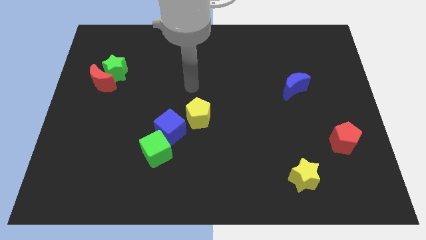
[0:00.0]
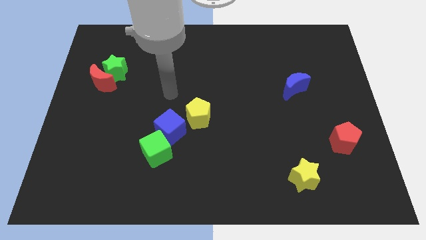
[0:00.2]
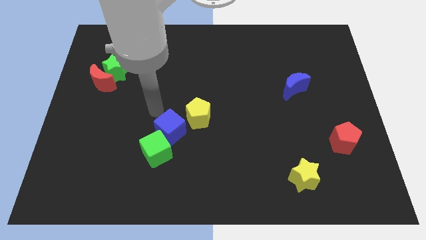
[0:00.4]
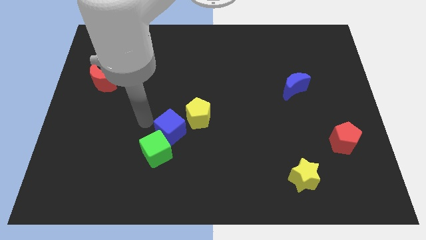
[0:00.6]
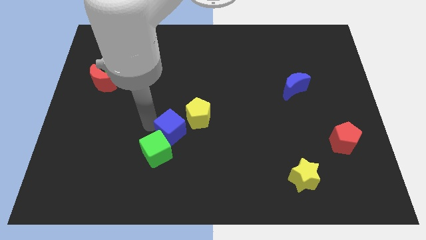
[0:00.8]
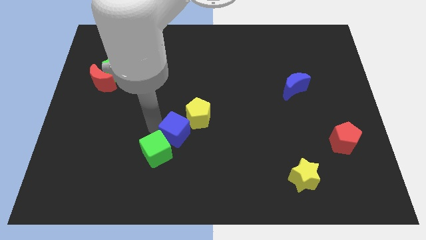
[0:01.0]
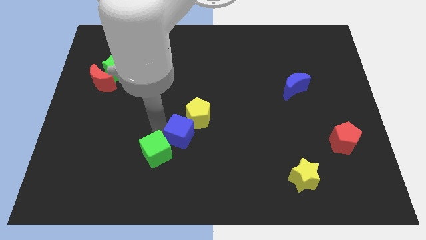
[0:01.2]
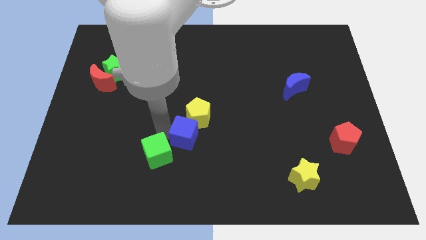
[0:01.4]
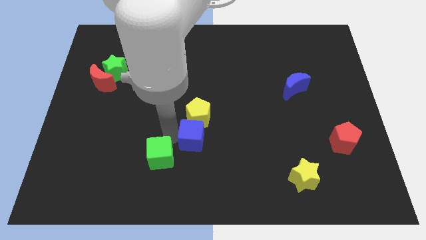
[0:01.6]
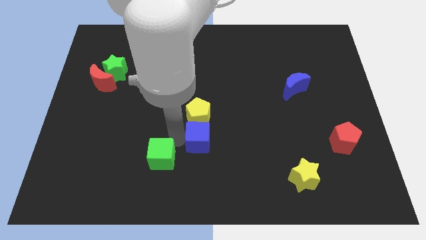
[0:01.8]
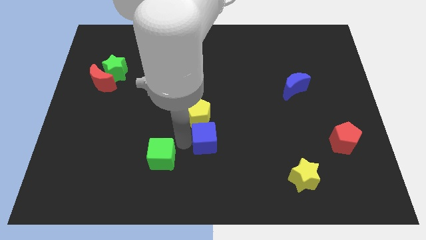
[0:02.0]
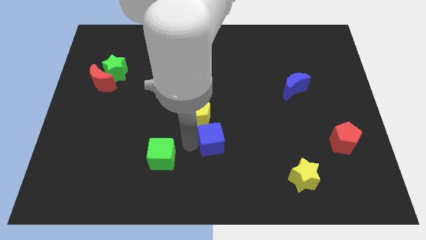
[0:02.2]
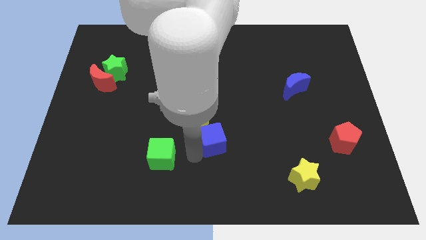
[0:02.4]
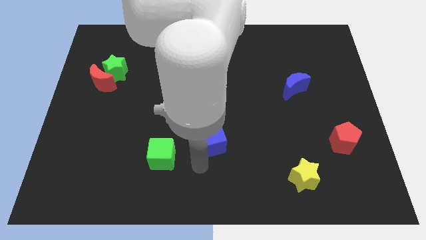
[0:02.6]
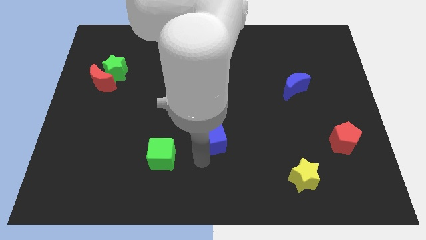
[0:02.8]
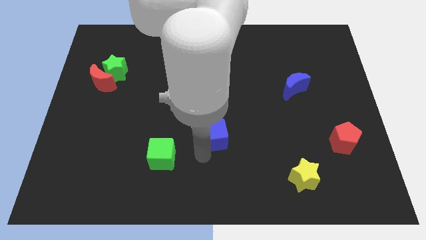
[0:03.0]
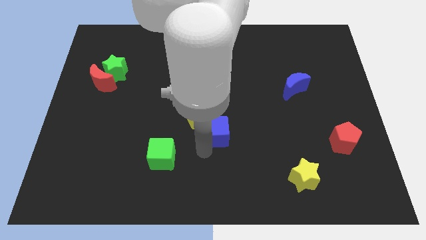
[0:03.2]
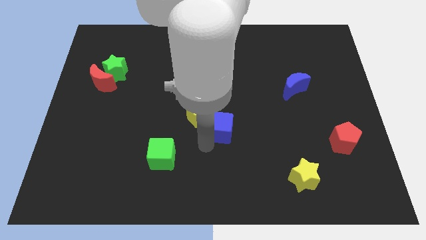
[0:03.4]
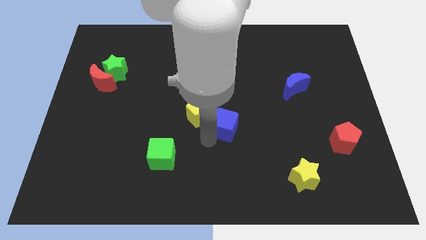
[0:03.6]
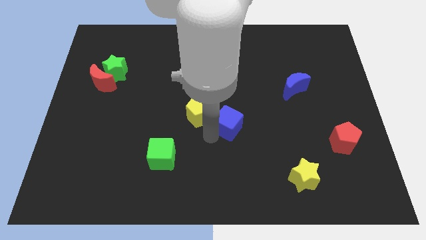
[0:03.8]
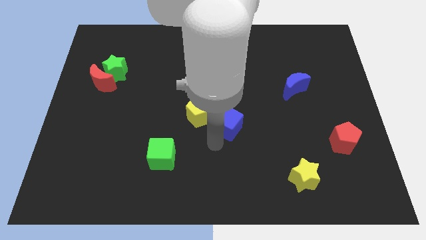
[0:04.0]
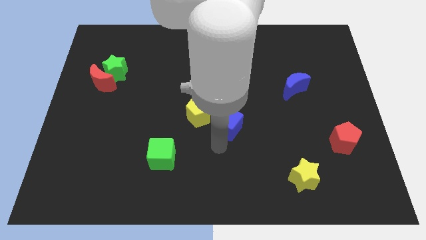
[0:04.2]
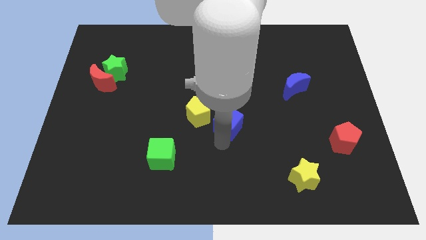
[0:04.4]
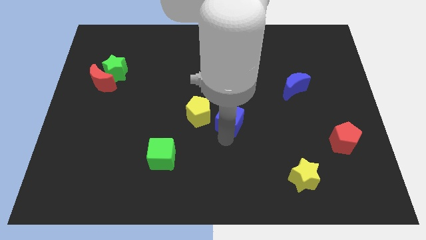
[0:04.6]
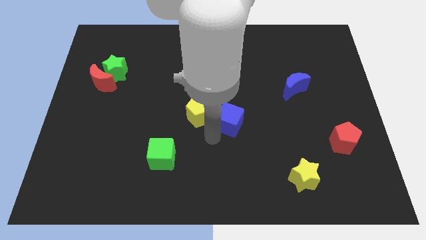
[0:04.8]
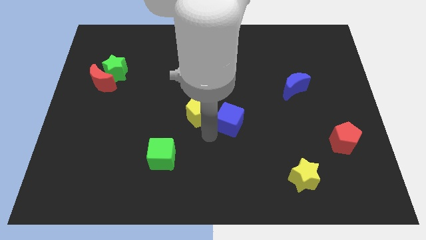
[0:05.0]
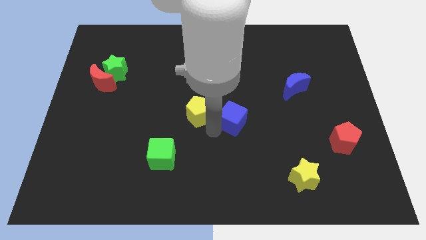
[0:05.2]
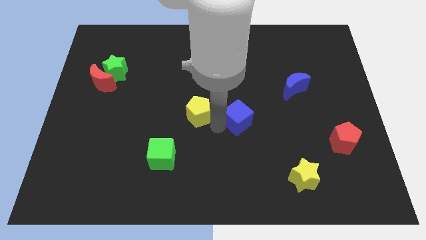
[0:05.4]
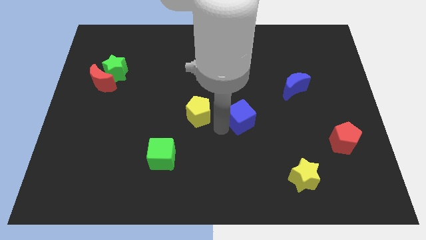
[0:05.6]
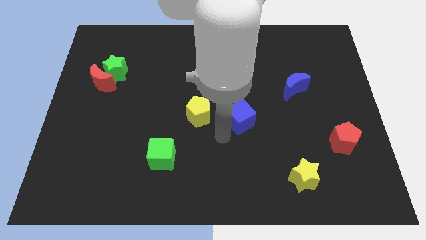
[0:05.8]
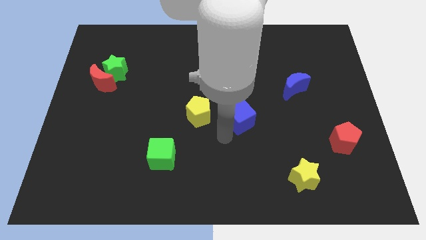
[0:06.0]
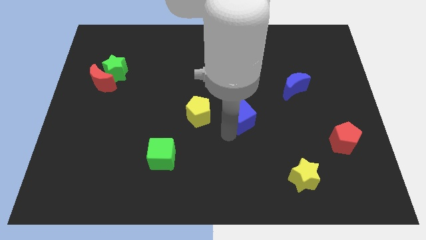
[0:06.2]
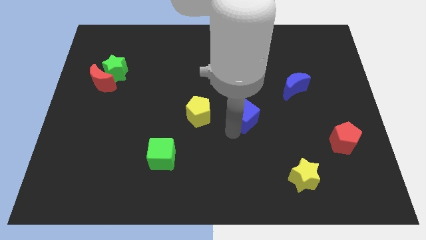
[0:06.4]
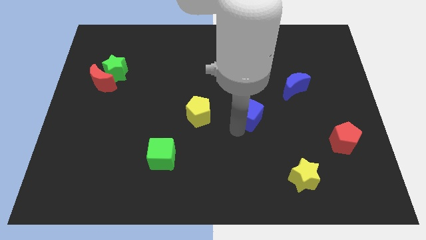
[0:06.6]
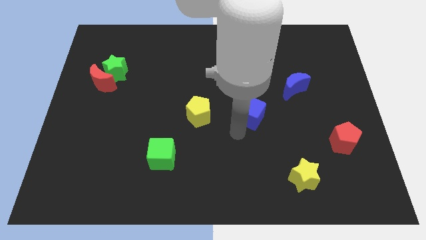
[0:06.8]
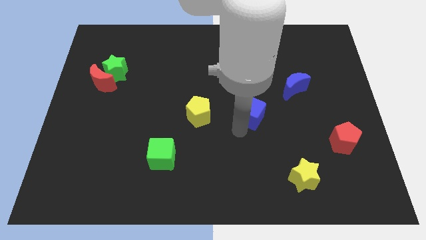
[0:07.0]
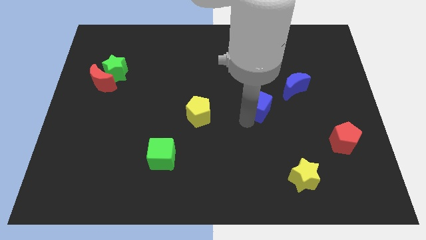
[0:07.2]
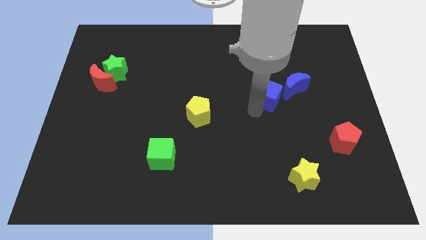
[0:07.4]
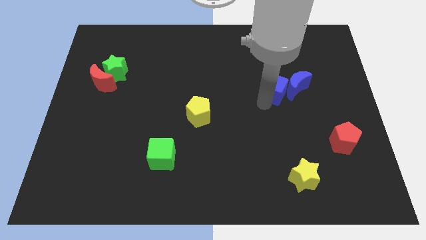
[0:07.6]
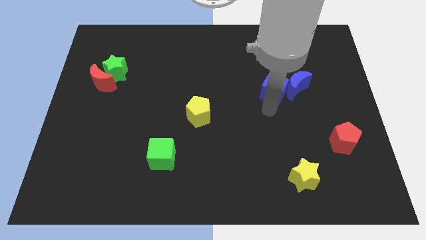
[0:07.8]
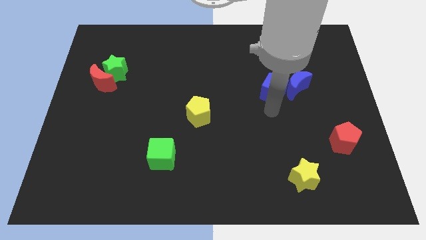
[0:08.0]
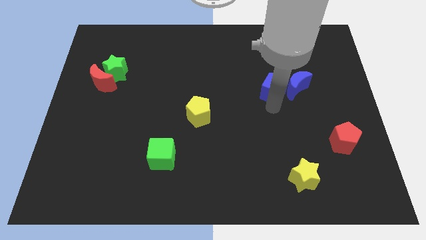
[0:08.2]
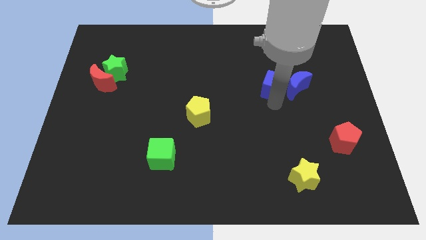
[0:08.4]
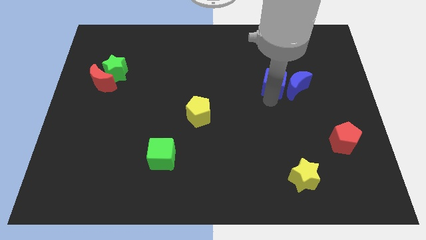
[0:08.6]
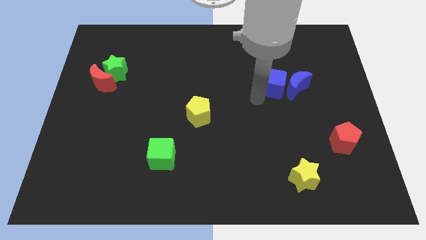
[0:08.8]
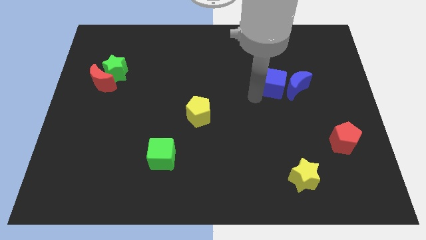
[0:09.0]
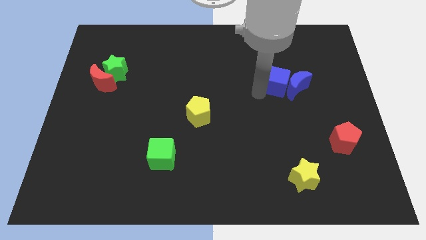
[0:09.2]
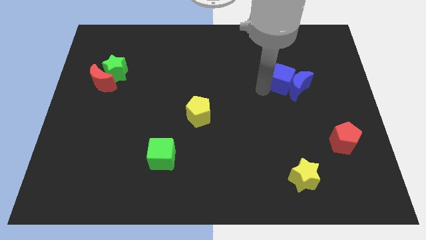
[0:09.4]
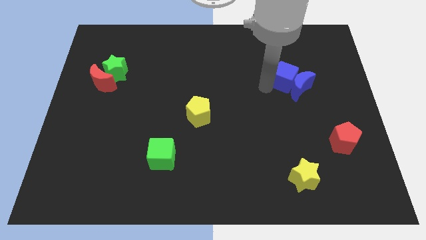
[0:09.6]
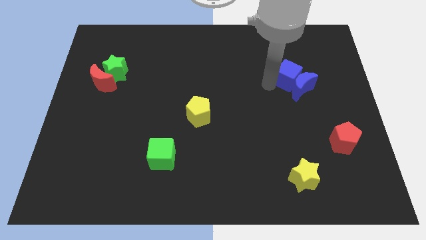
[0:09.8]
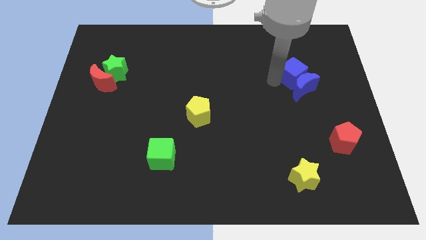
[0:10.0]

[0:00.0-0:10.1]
move the blue cube diagonally up and to the right of the blue moon

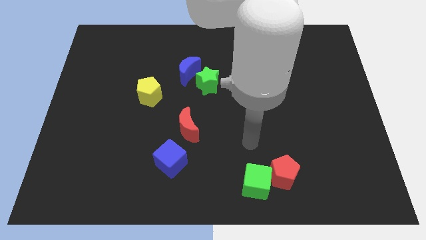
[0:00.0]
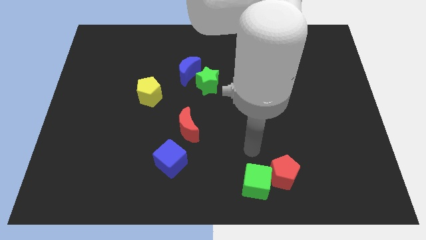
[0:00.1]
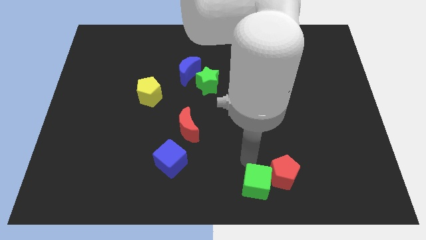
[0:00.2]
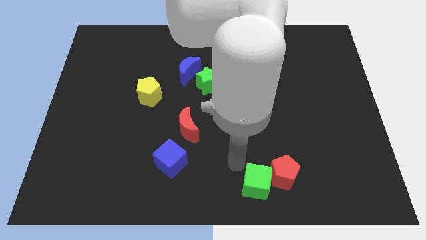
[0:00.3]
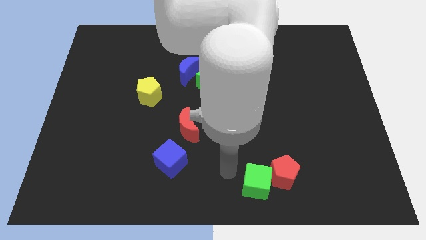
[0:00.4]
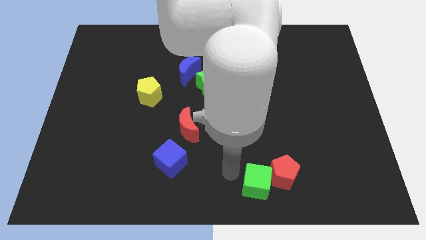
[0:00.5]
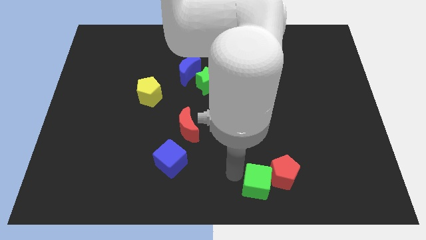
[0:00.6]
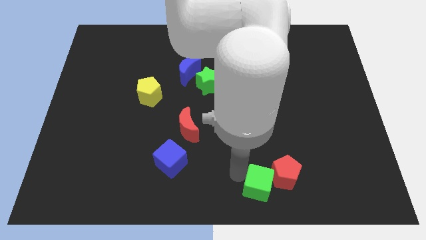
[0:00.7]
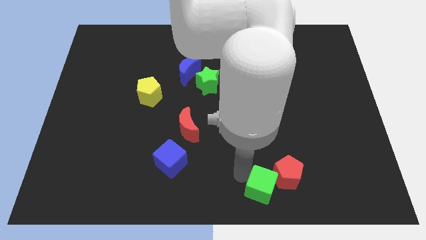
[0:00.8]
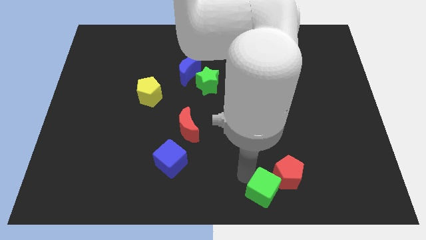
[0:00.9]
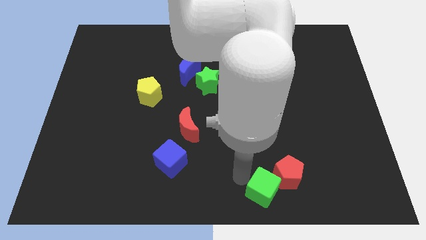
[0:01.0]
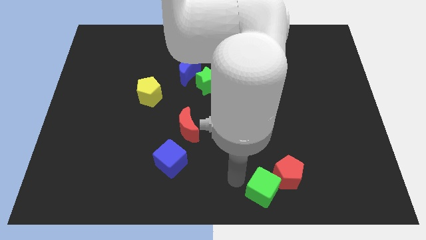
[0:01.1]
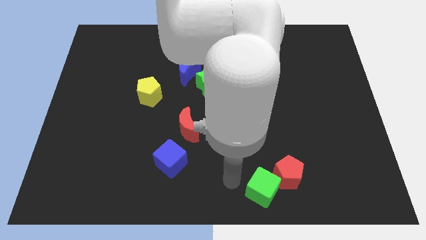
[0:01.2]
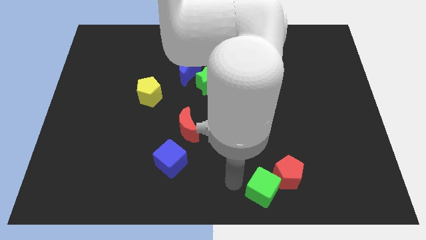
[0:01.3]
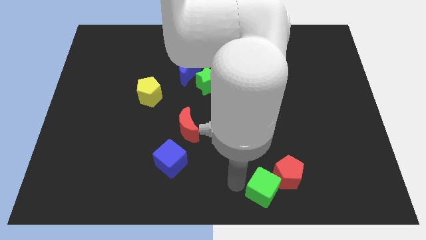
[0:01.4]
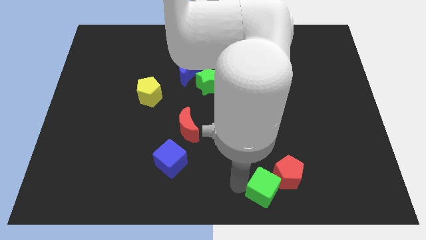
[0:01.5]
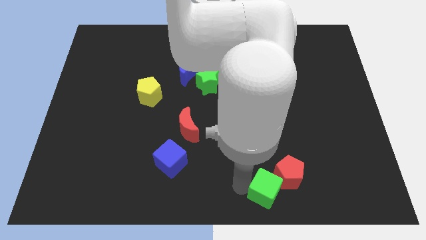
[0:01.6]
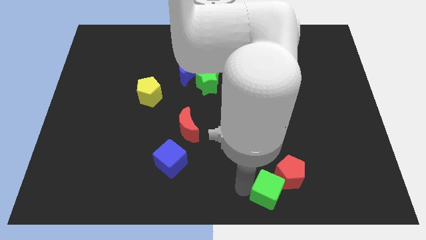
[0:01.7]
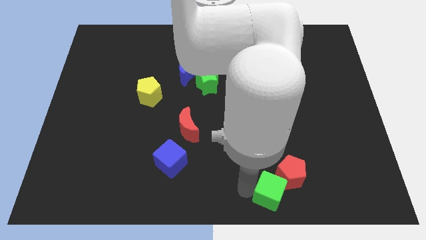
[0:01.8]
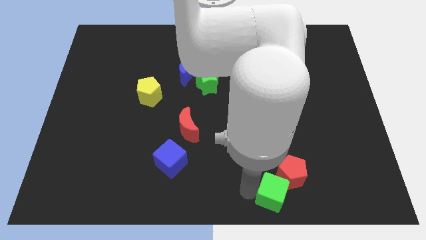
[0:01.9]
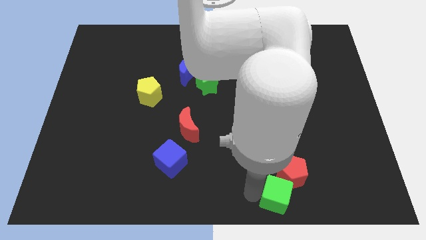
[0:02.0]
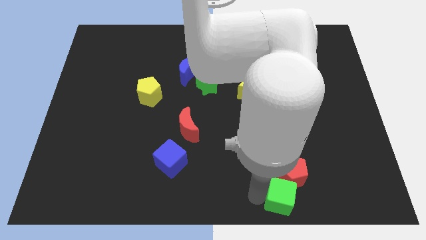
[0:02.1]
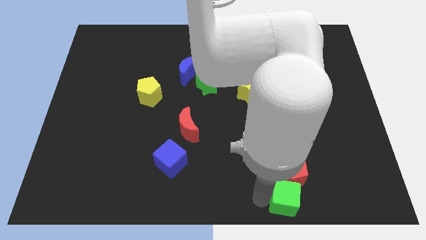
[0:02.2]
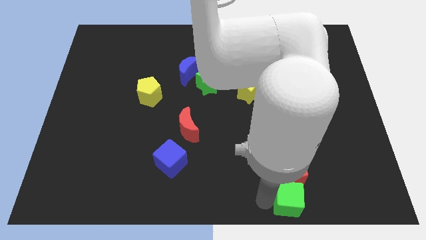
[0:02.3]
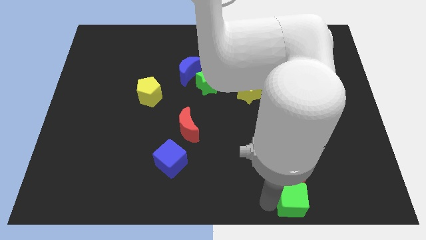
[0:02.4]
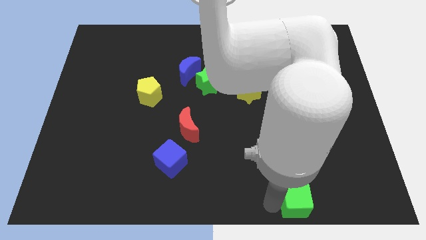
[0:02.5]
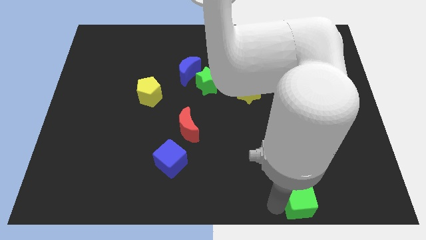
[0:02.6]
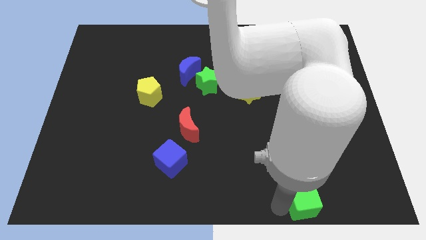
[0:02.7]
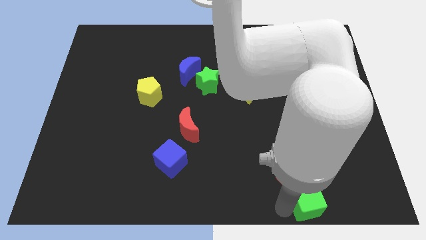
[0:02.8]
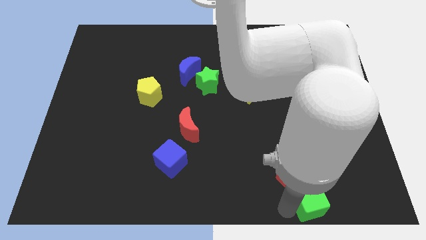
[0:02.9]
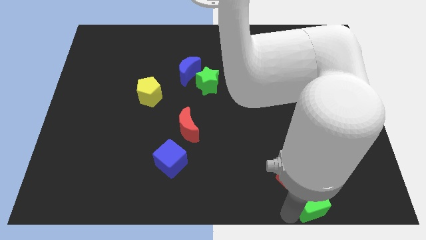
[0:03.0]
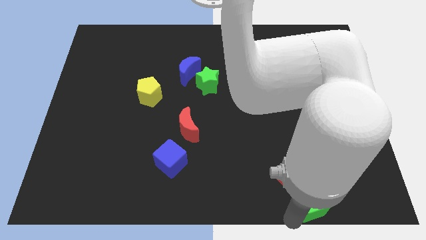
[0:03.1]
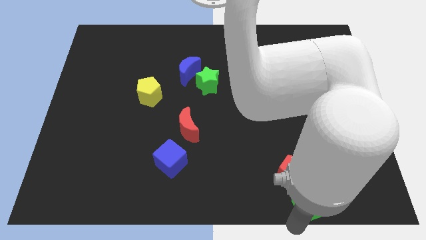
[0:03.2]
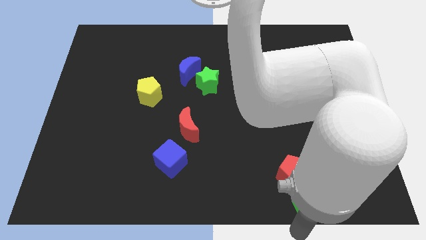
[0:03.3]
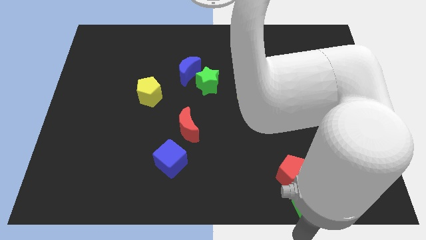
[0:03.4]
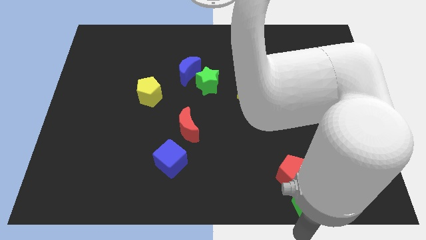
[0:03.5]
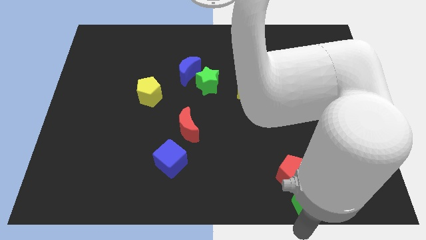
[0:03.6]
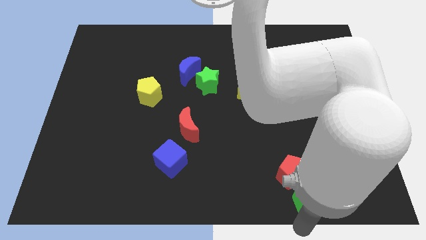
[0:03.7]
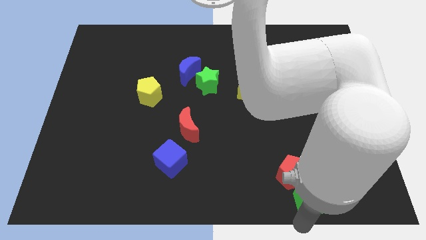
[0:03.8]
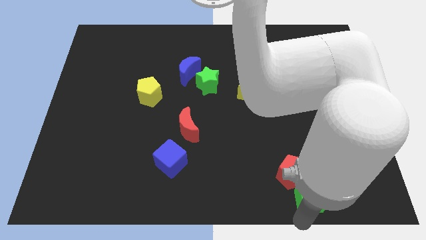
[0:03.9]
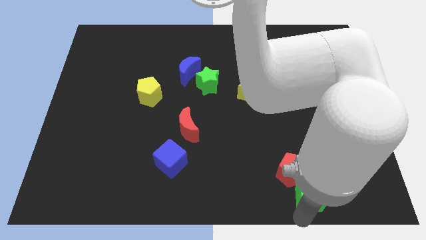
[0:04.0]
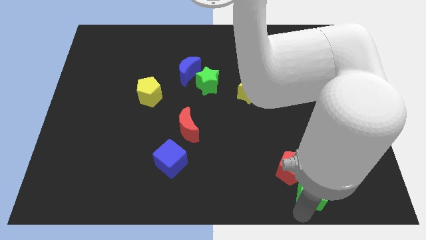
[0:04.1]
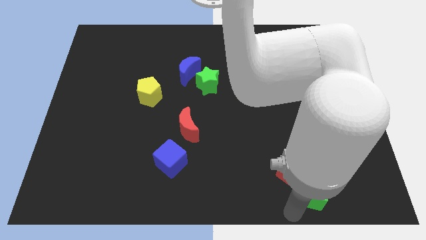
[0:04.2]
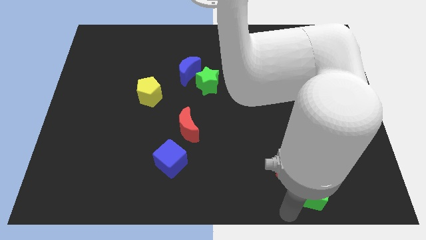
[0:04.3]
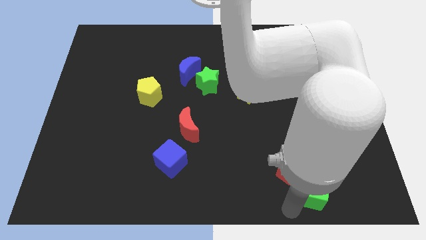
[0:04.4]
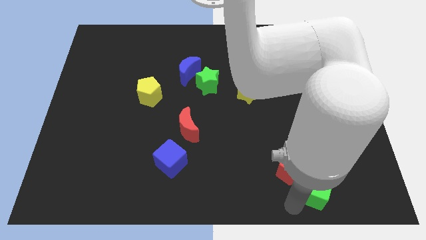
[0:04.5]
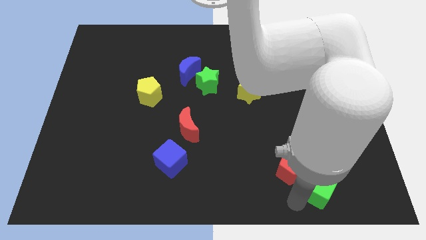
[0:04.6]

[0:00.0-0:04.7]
put the green cube to the right side of the red pentagon
